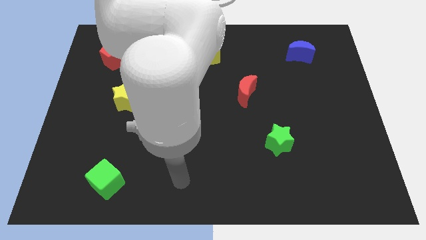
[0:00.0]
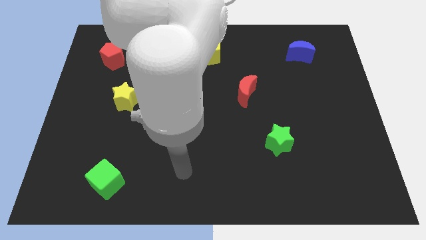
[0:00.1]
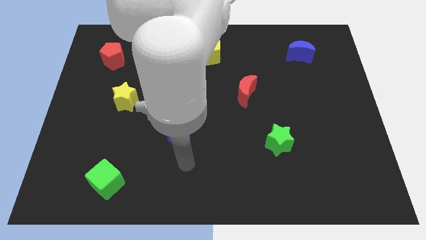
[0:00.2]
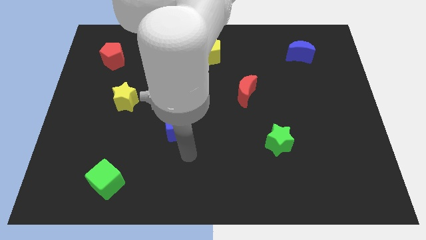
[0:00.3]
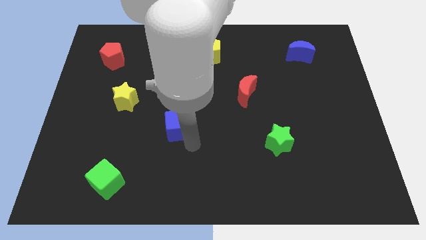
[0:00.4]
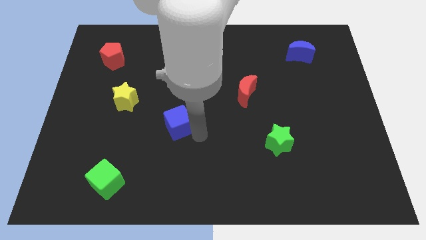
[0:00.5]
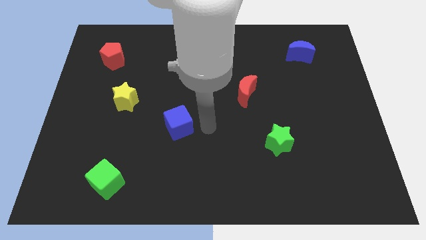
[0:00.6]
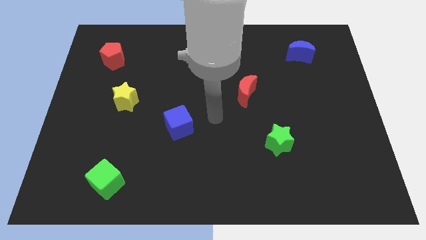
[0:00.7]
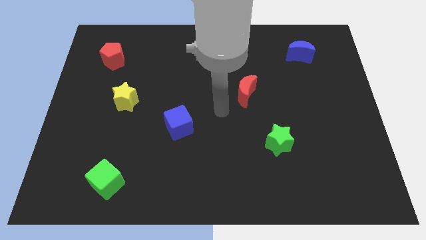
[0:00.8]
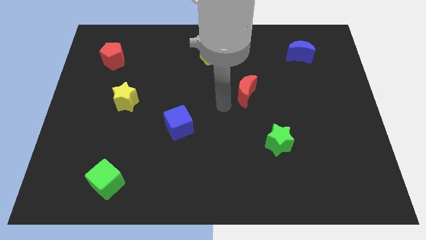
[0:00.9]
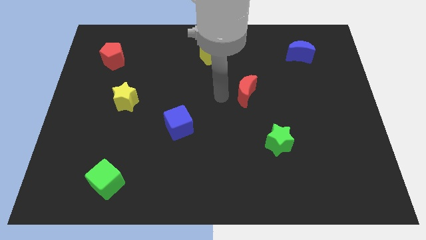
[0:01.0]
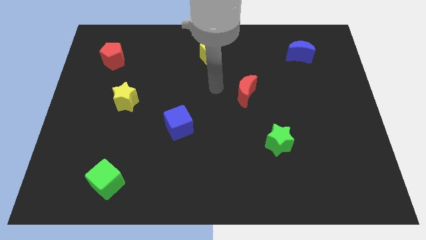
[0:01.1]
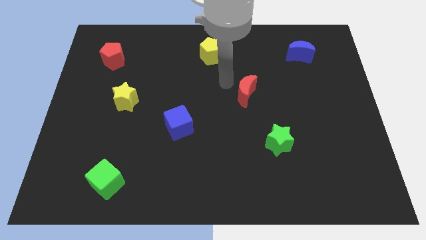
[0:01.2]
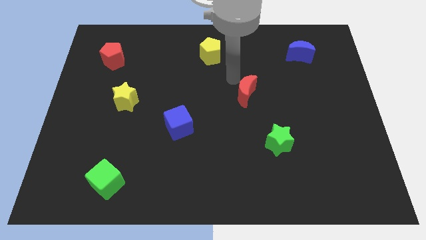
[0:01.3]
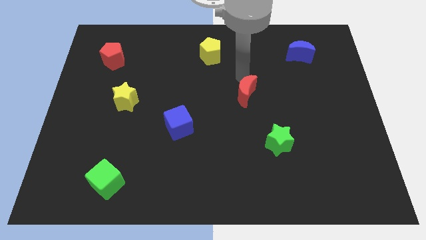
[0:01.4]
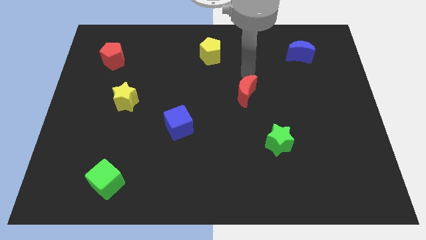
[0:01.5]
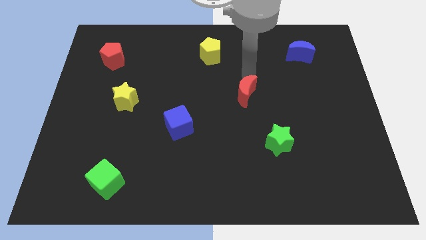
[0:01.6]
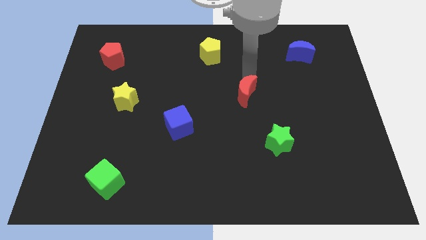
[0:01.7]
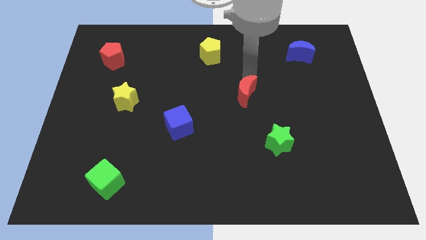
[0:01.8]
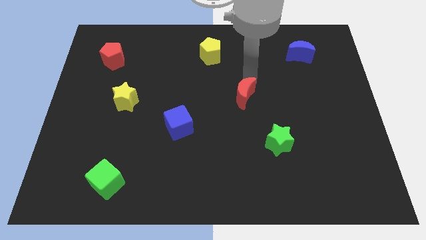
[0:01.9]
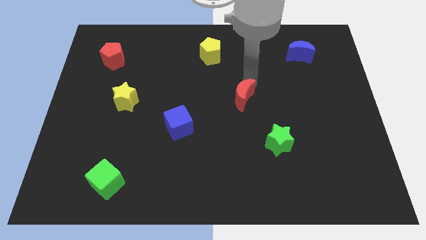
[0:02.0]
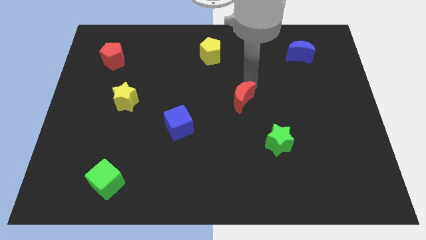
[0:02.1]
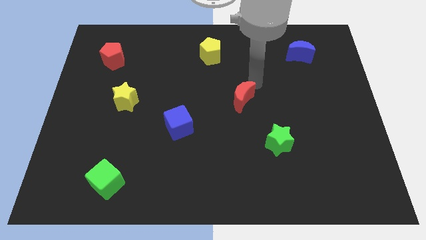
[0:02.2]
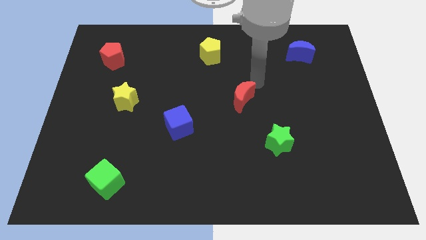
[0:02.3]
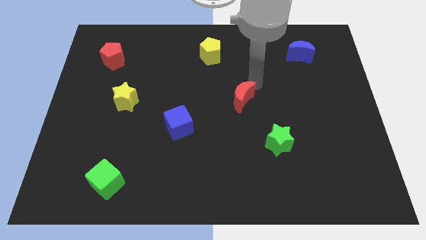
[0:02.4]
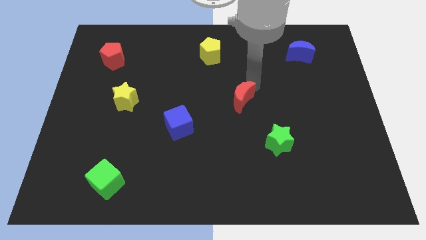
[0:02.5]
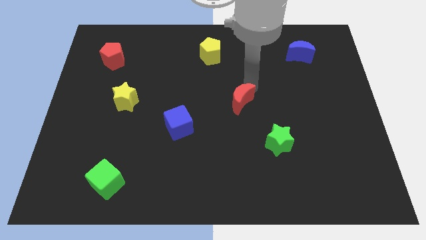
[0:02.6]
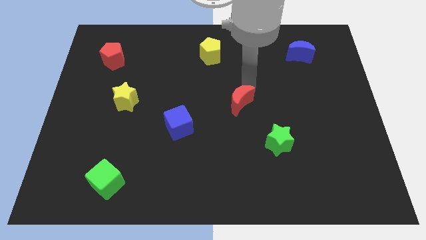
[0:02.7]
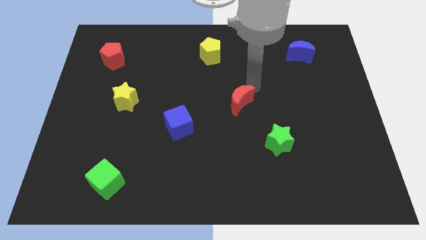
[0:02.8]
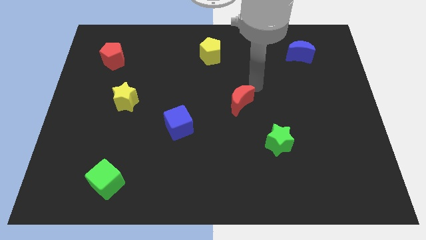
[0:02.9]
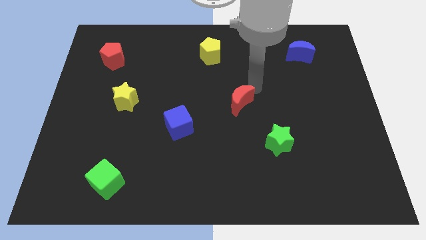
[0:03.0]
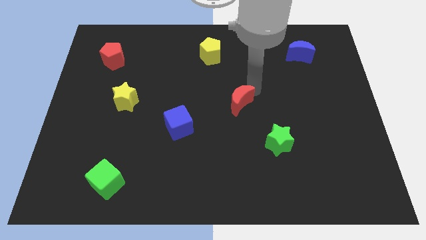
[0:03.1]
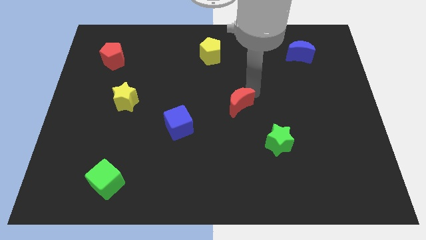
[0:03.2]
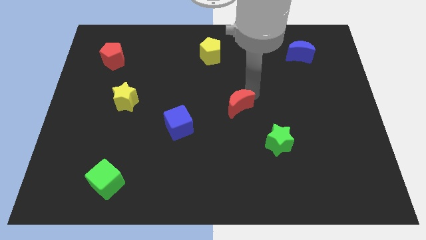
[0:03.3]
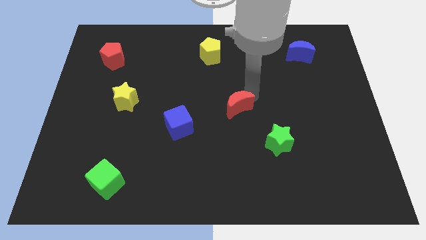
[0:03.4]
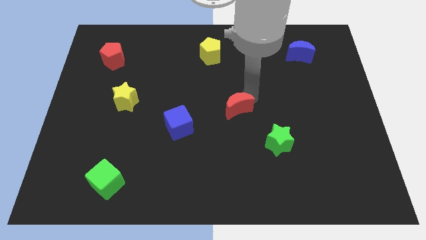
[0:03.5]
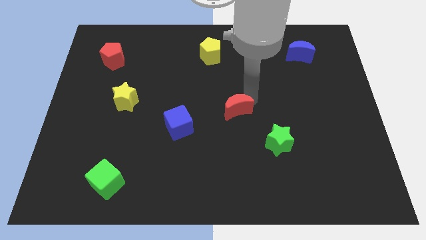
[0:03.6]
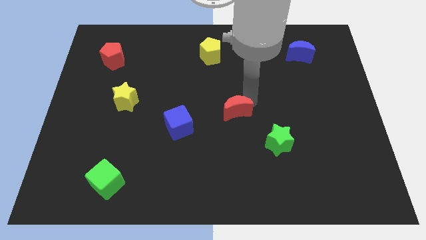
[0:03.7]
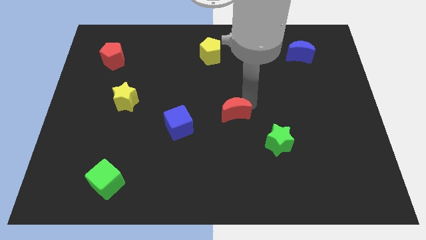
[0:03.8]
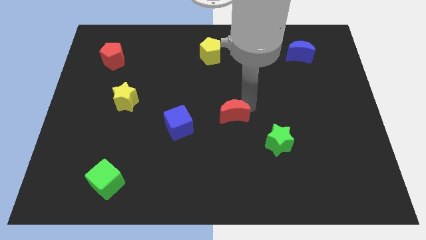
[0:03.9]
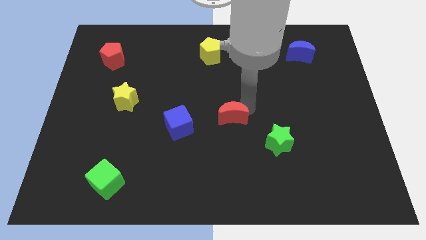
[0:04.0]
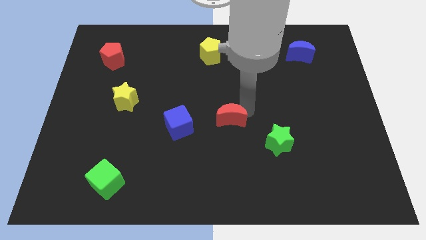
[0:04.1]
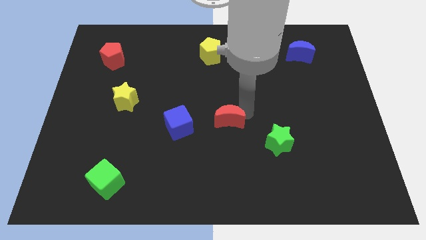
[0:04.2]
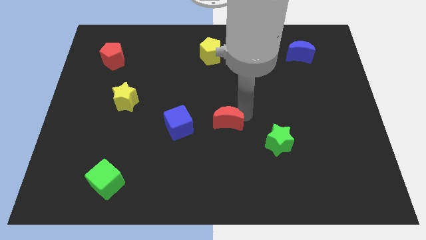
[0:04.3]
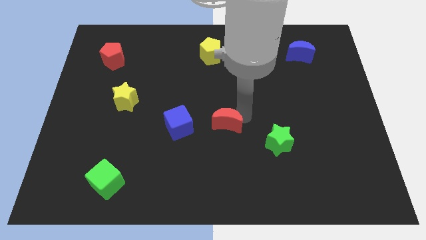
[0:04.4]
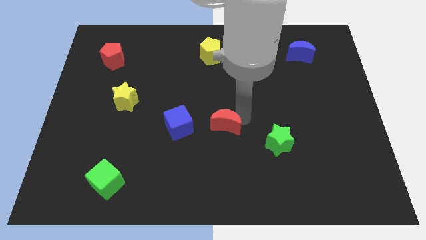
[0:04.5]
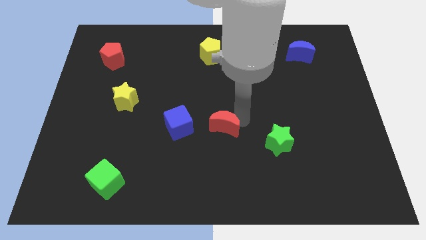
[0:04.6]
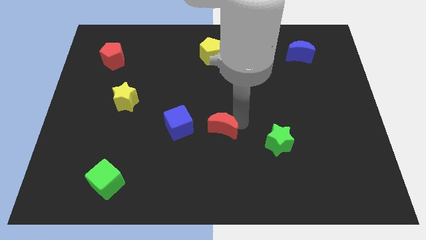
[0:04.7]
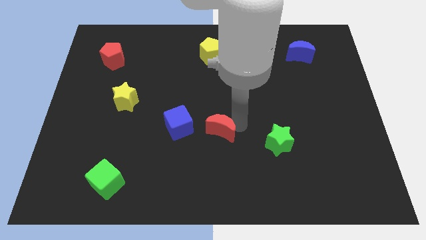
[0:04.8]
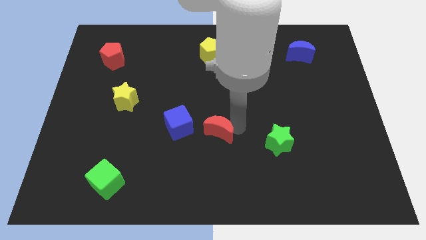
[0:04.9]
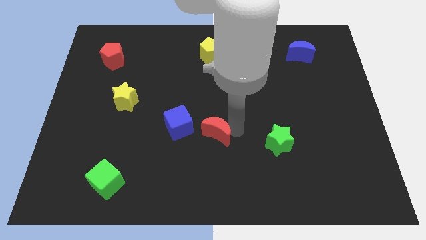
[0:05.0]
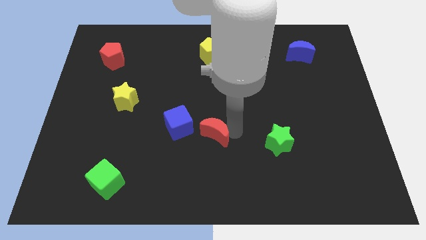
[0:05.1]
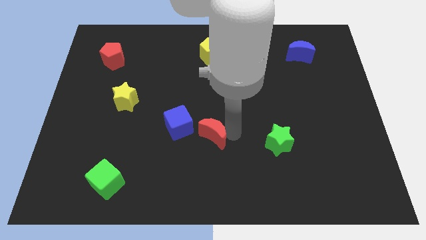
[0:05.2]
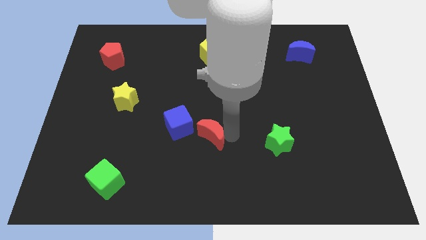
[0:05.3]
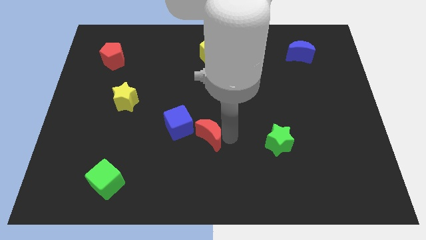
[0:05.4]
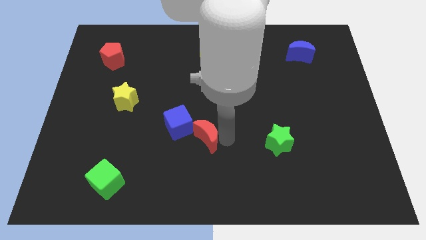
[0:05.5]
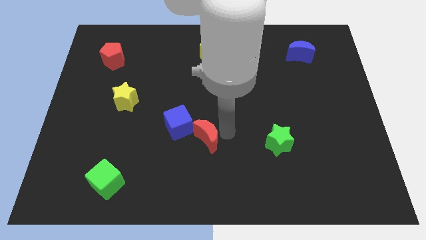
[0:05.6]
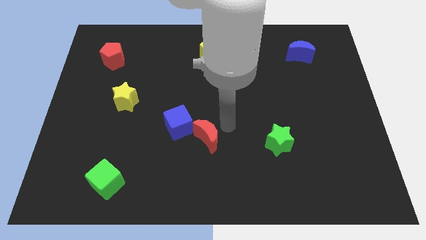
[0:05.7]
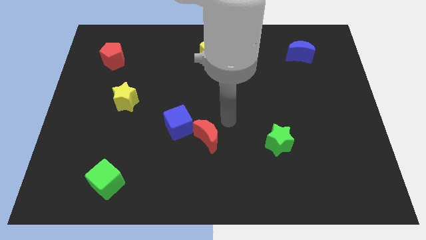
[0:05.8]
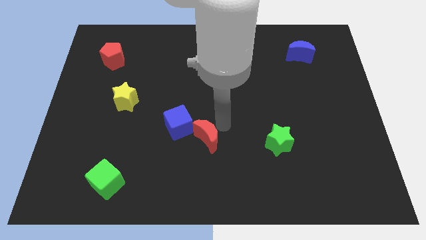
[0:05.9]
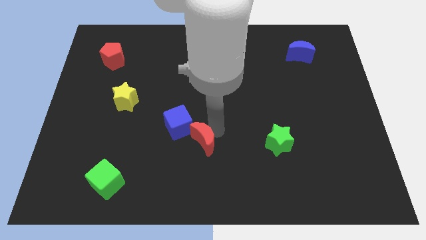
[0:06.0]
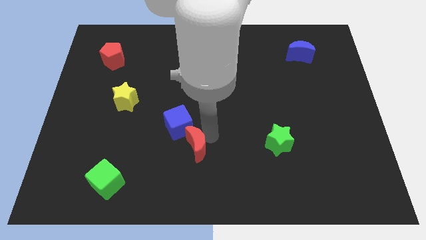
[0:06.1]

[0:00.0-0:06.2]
move the red moon to the bottom of the blue cube

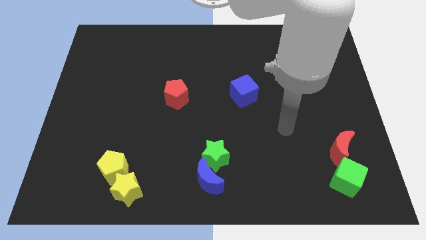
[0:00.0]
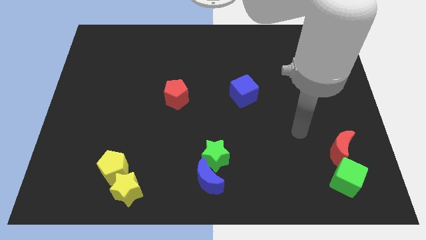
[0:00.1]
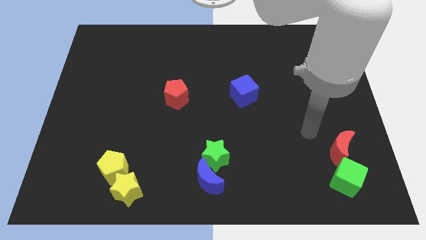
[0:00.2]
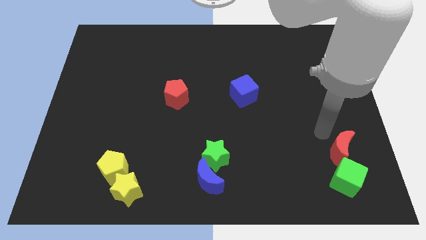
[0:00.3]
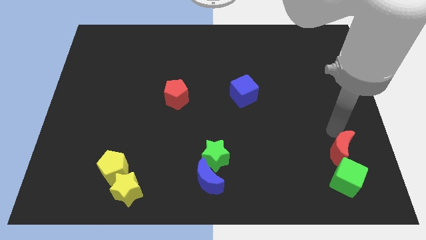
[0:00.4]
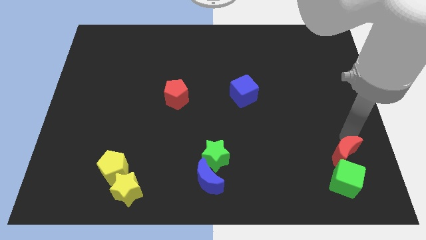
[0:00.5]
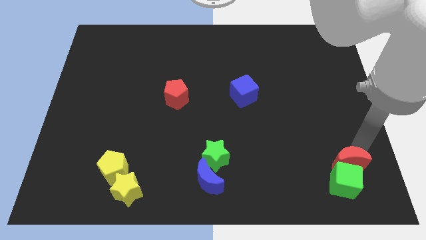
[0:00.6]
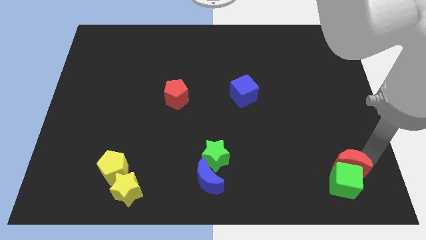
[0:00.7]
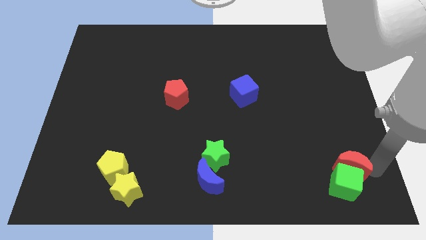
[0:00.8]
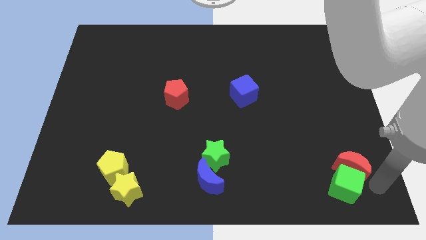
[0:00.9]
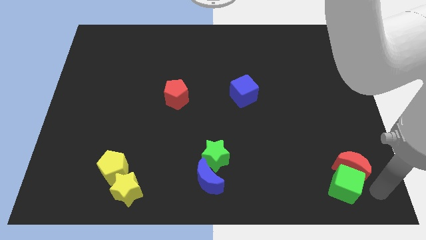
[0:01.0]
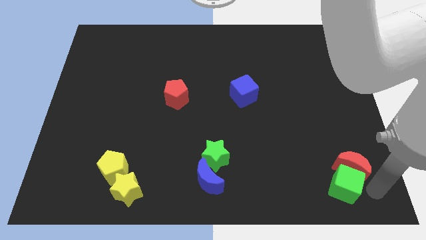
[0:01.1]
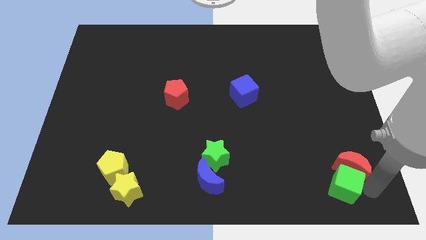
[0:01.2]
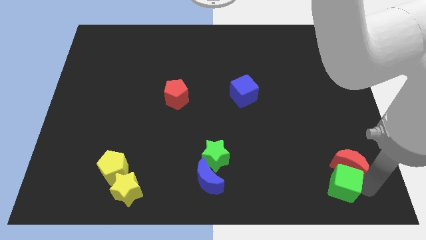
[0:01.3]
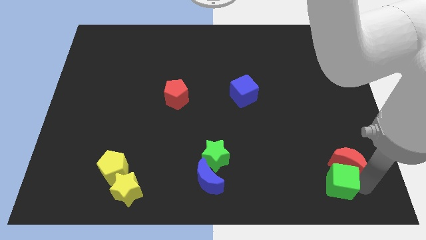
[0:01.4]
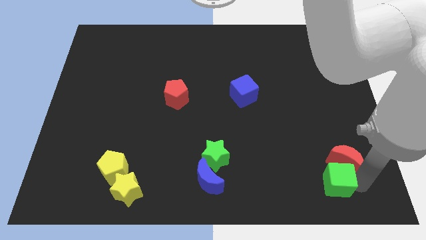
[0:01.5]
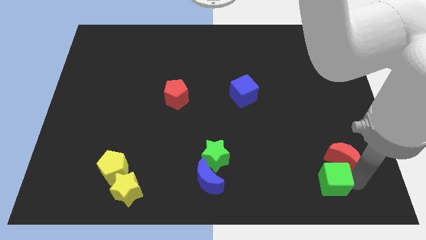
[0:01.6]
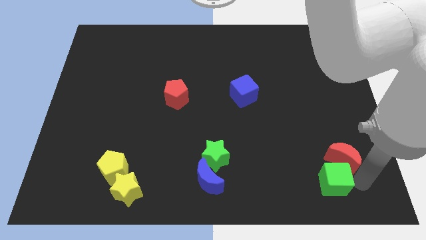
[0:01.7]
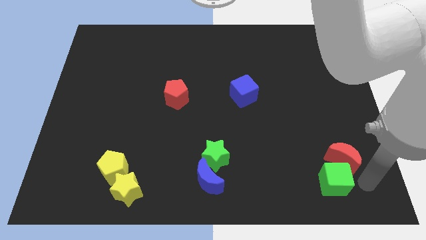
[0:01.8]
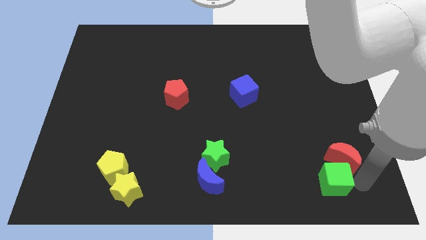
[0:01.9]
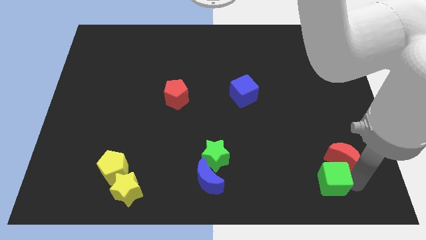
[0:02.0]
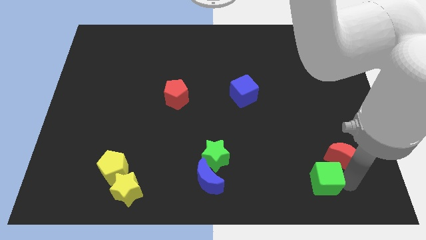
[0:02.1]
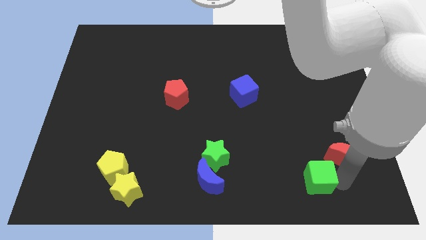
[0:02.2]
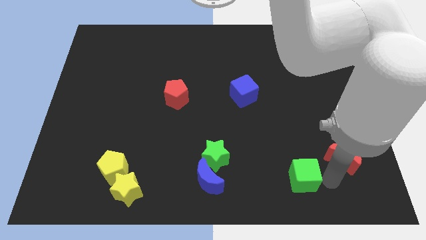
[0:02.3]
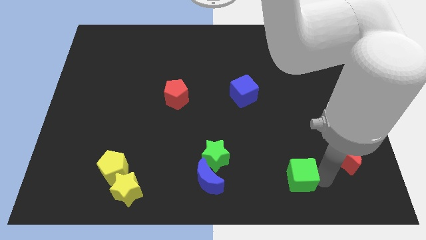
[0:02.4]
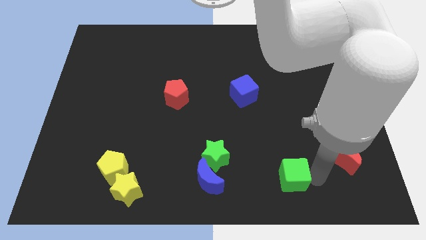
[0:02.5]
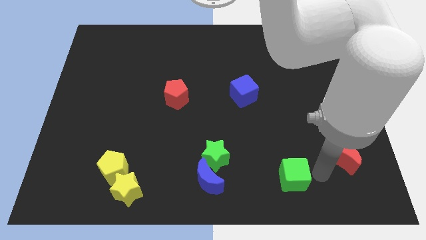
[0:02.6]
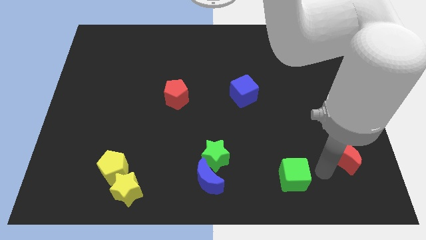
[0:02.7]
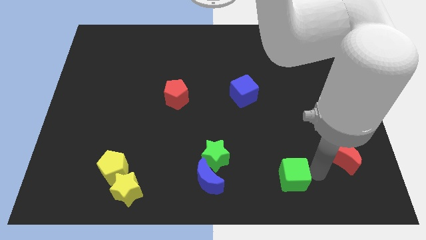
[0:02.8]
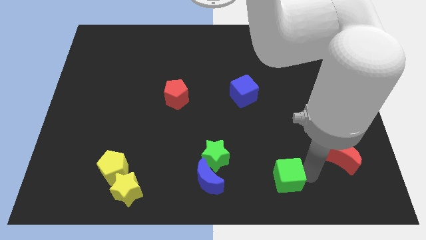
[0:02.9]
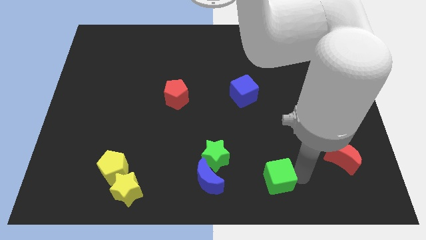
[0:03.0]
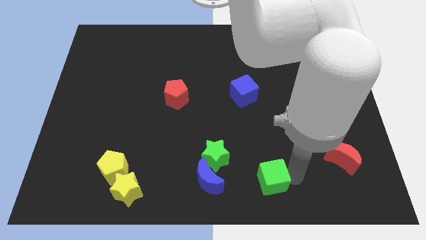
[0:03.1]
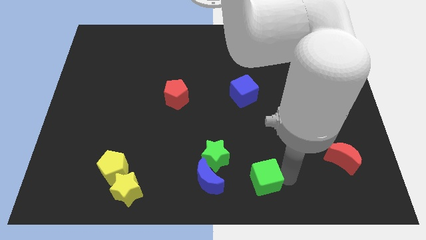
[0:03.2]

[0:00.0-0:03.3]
move the green cube to the bottom right of the green star
